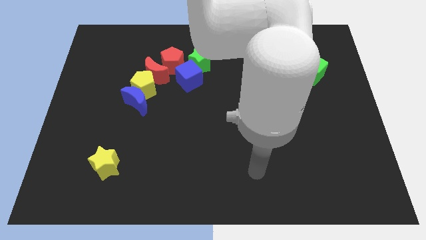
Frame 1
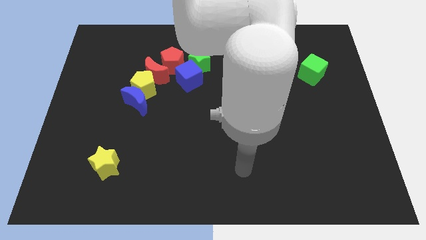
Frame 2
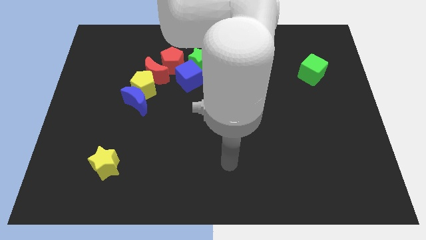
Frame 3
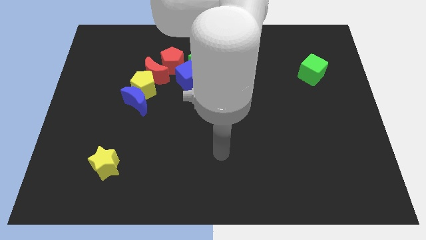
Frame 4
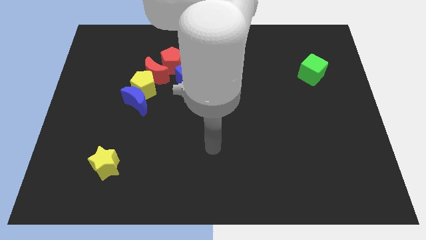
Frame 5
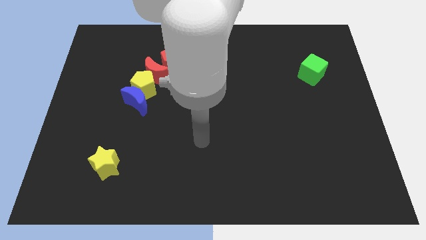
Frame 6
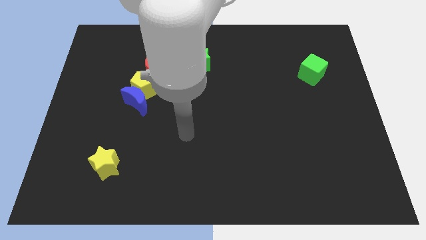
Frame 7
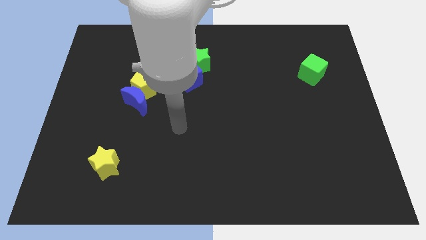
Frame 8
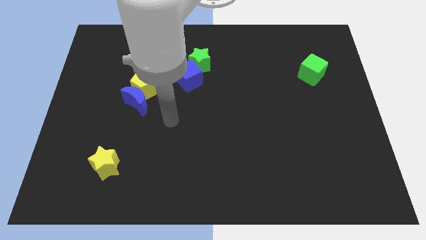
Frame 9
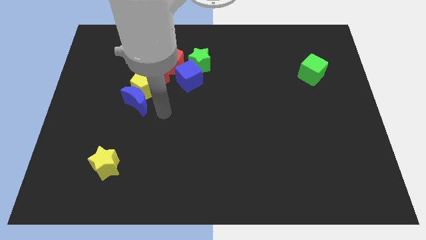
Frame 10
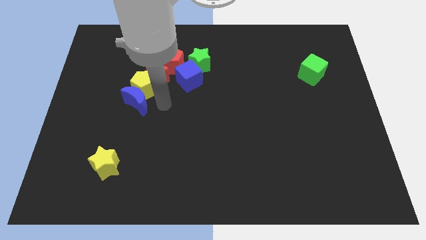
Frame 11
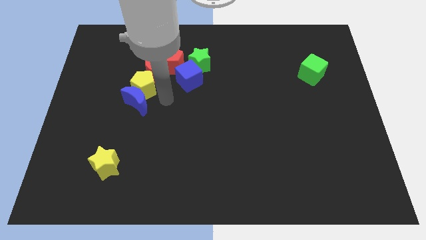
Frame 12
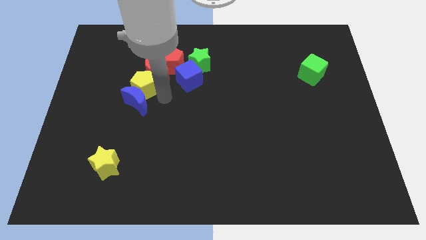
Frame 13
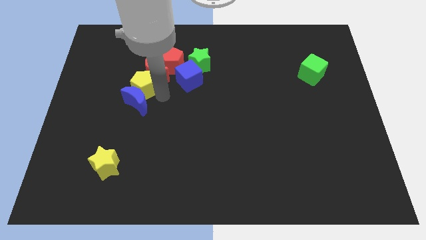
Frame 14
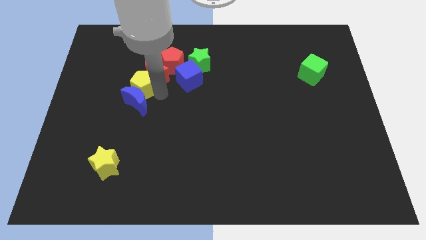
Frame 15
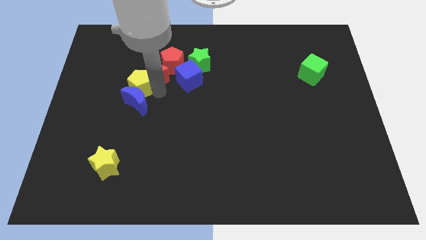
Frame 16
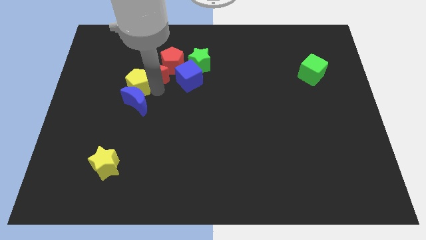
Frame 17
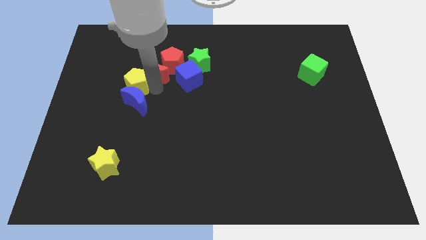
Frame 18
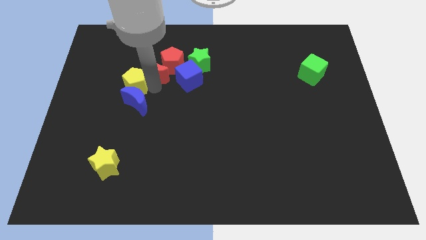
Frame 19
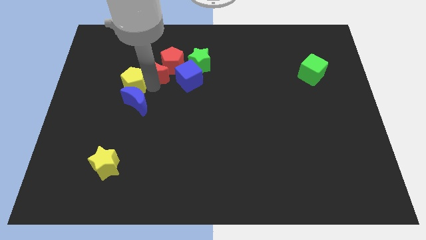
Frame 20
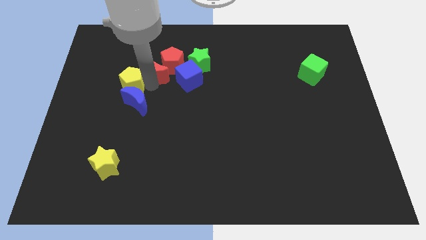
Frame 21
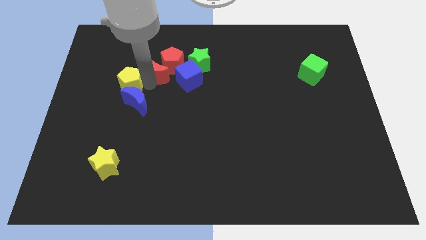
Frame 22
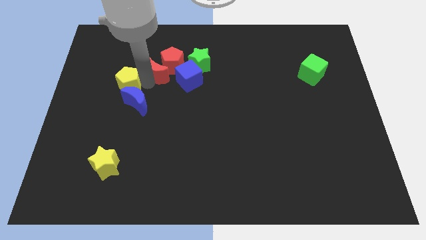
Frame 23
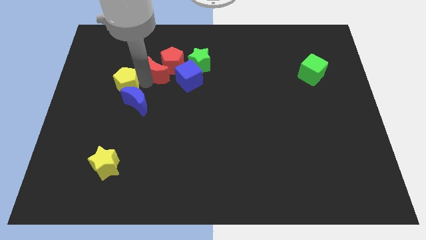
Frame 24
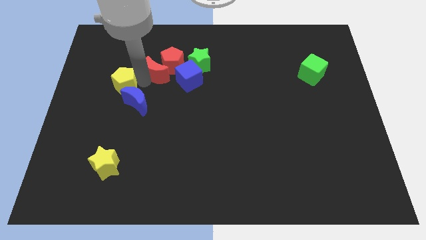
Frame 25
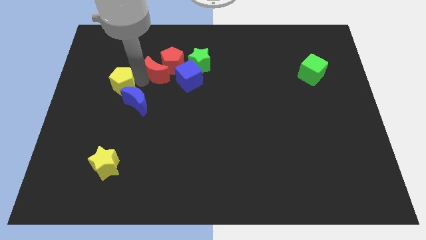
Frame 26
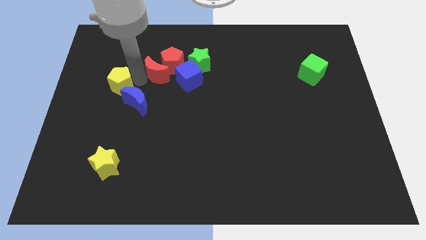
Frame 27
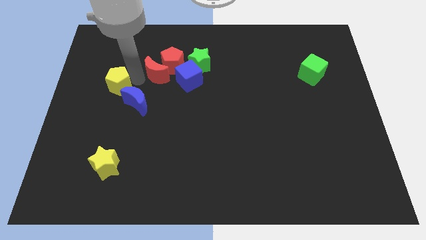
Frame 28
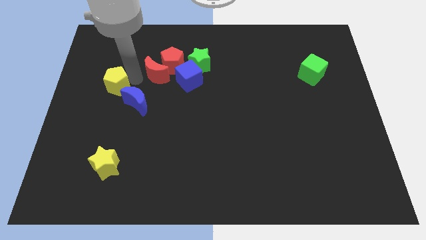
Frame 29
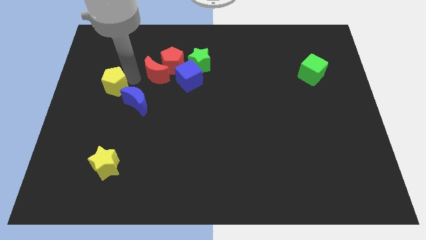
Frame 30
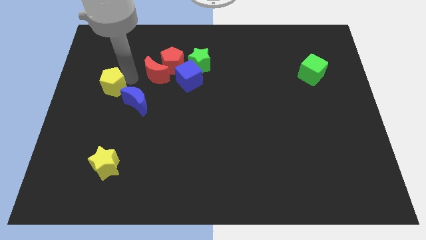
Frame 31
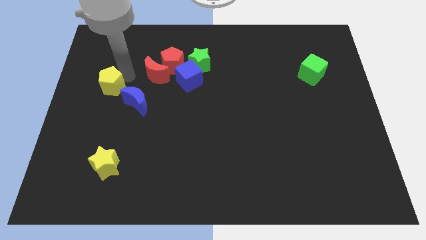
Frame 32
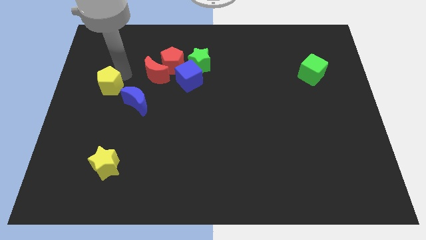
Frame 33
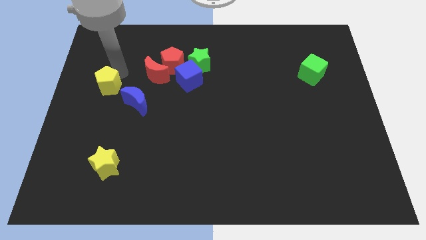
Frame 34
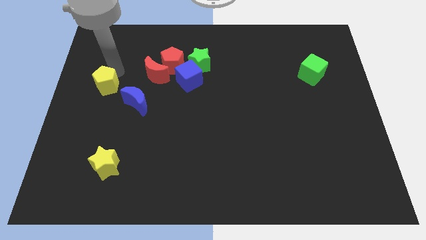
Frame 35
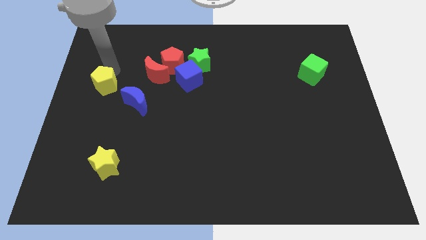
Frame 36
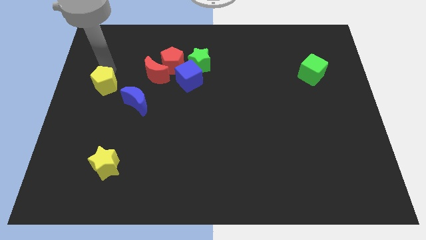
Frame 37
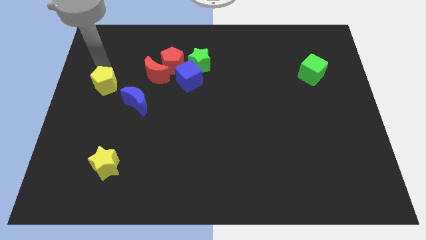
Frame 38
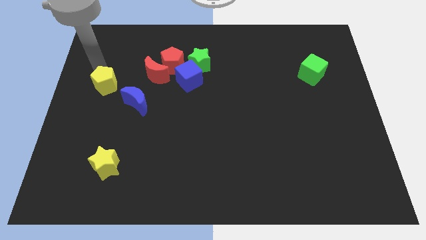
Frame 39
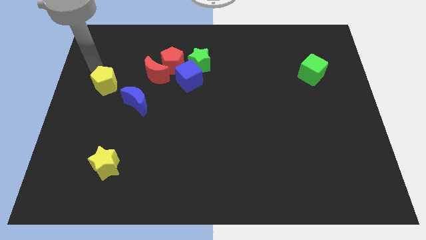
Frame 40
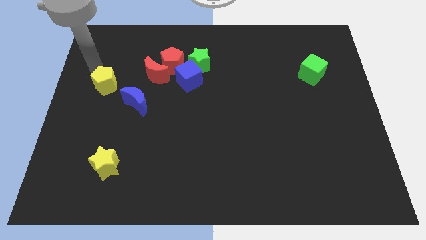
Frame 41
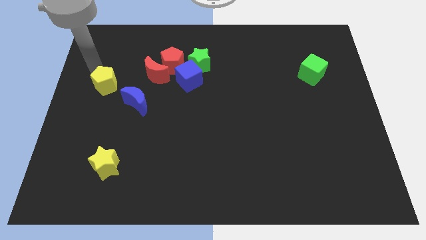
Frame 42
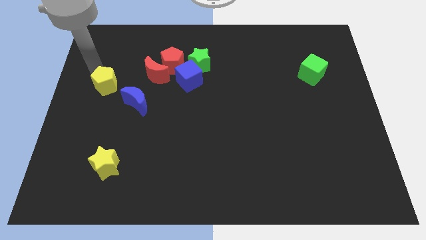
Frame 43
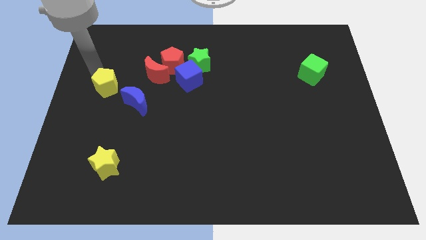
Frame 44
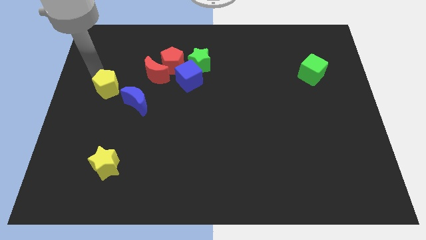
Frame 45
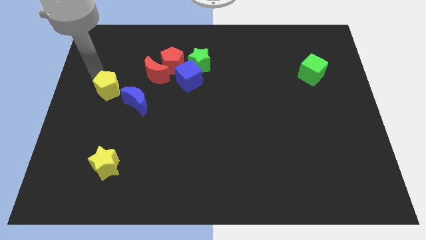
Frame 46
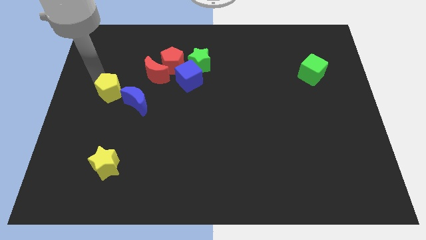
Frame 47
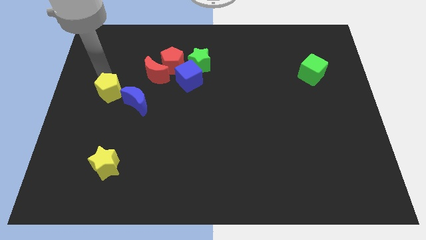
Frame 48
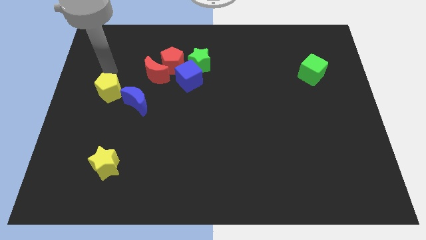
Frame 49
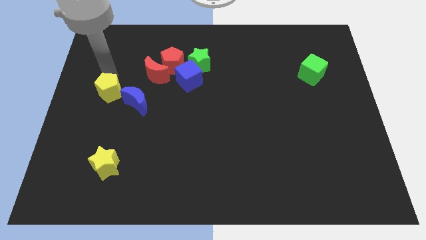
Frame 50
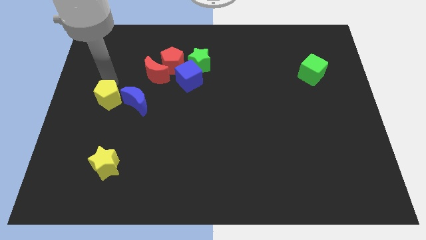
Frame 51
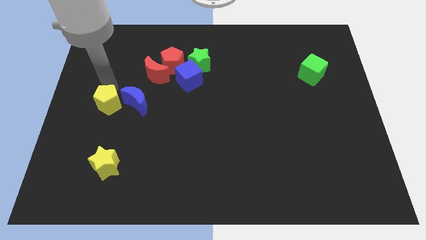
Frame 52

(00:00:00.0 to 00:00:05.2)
slide the yellow pentagon diagonally down and to the left of the blue moon

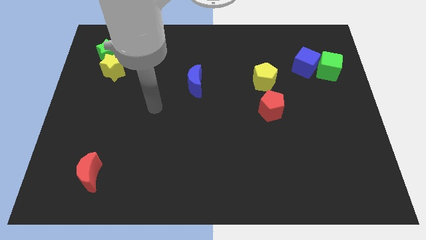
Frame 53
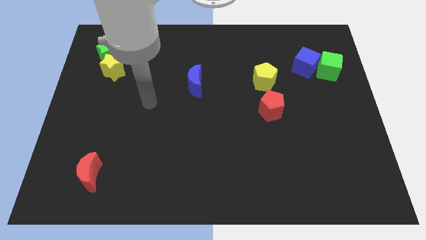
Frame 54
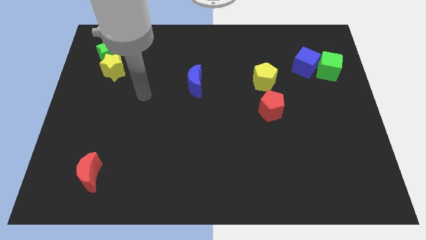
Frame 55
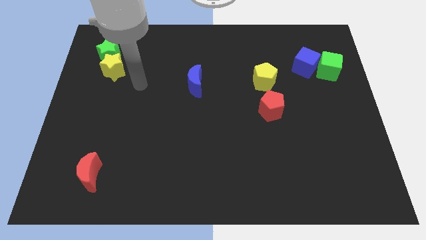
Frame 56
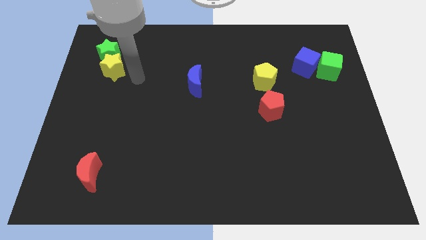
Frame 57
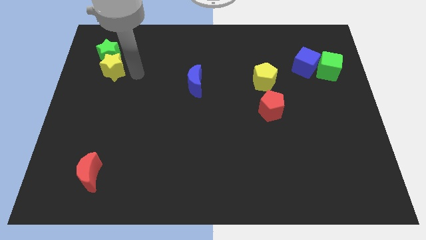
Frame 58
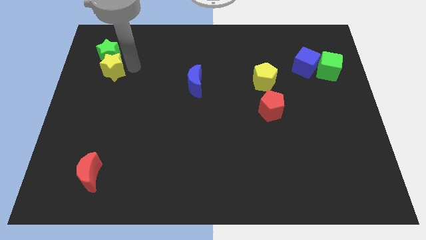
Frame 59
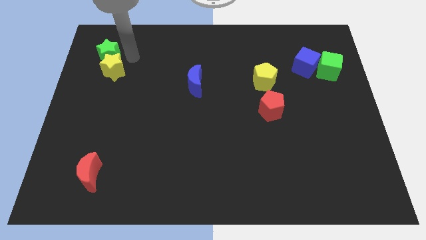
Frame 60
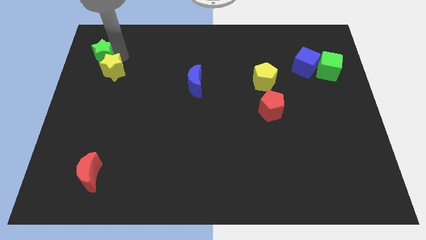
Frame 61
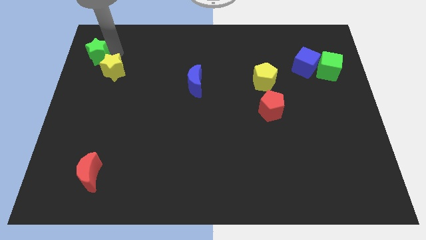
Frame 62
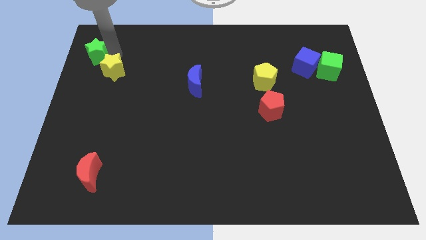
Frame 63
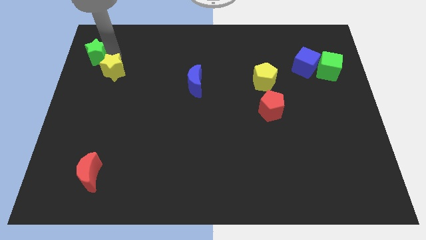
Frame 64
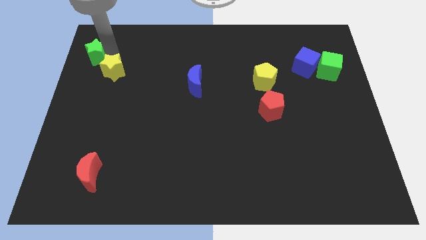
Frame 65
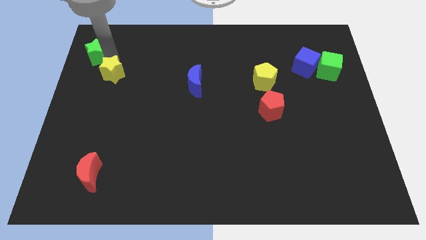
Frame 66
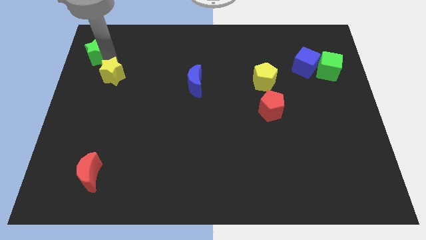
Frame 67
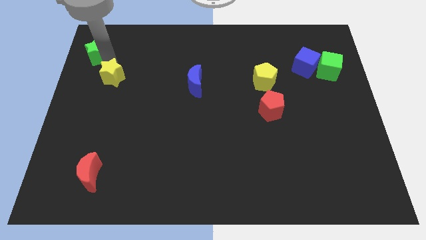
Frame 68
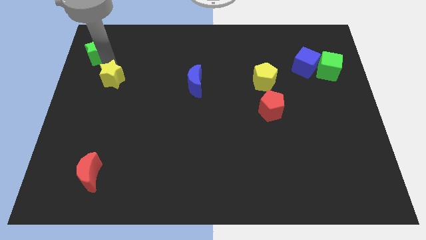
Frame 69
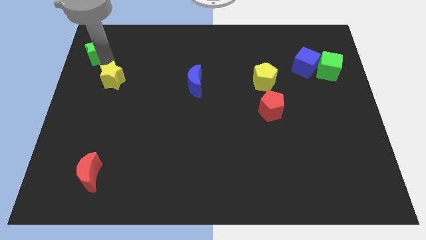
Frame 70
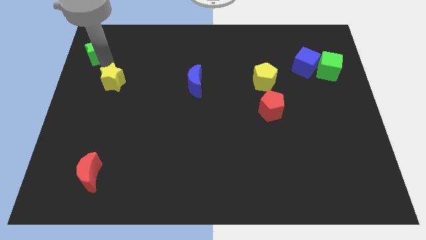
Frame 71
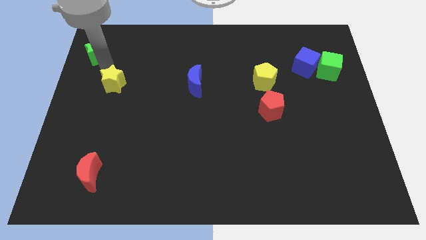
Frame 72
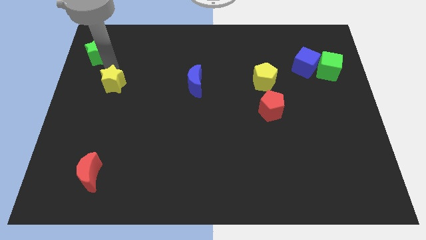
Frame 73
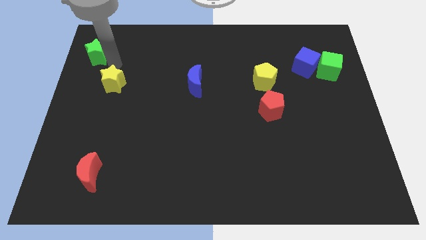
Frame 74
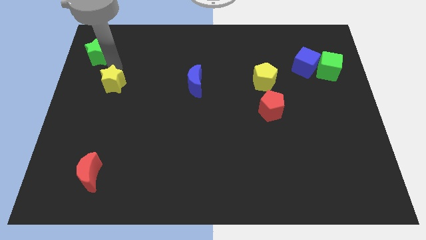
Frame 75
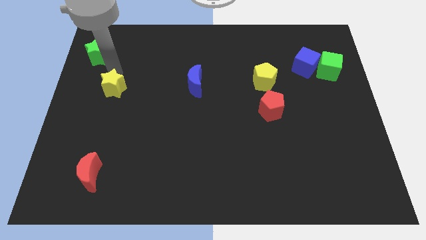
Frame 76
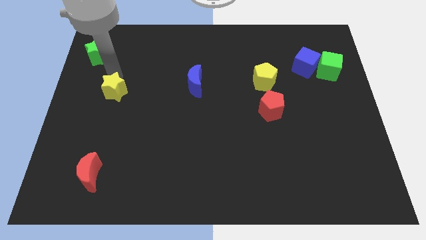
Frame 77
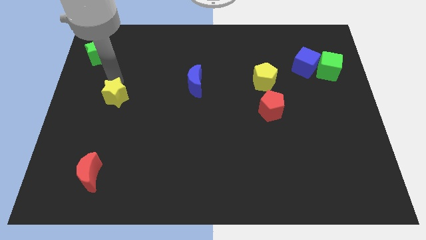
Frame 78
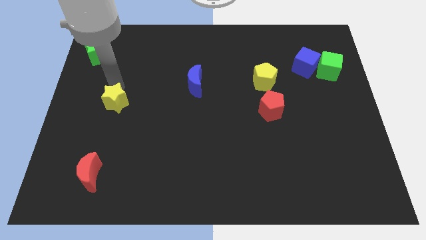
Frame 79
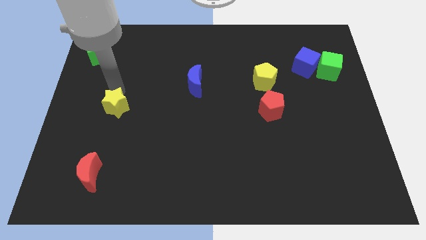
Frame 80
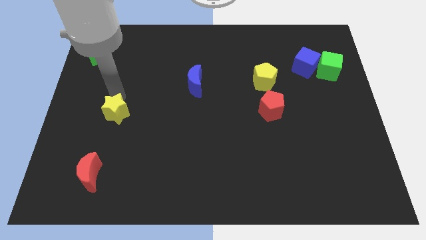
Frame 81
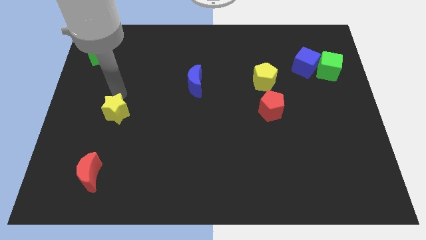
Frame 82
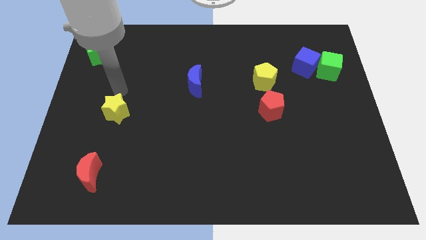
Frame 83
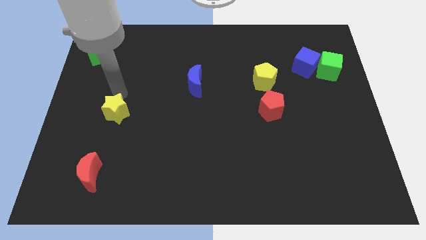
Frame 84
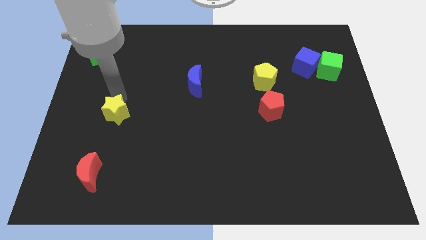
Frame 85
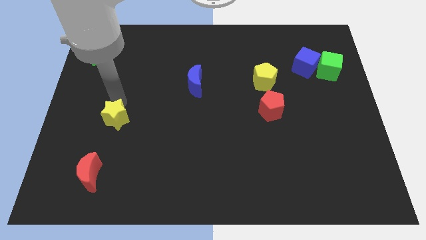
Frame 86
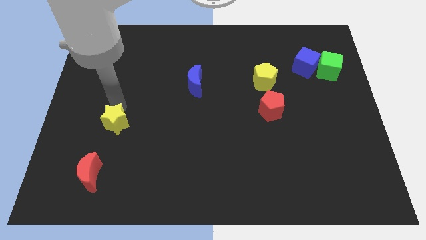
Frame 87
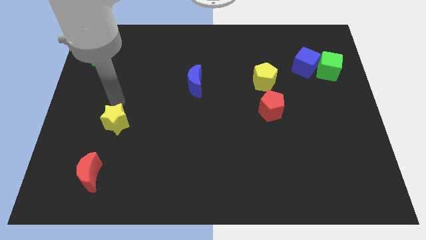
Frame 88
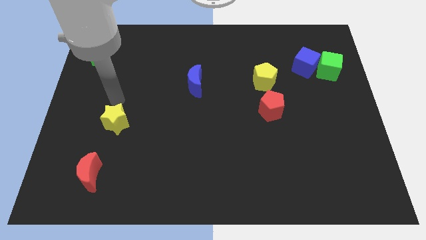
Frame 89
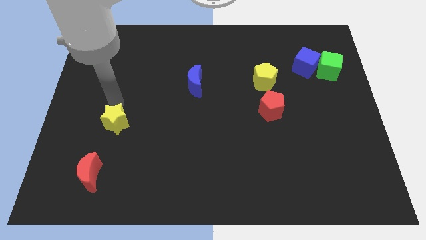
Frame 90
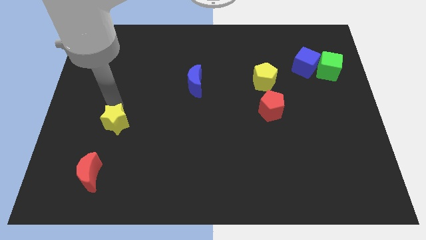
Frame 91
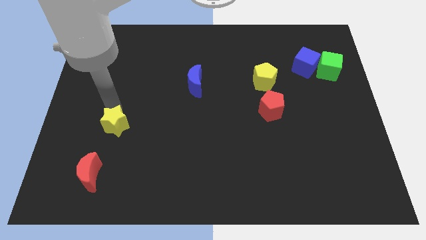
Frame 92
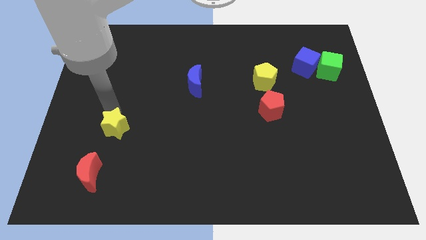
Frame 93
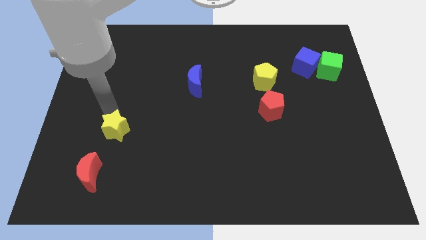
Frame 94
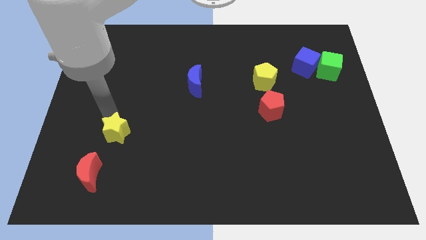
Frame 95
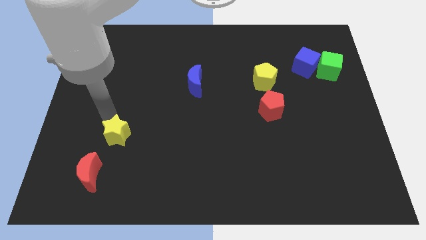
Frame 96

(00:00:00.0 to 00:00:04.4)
push the yellow star to the top right of the red moon
